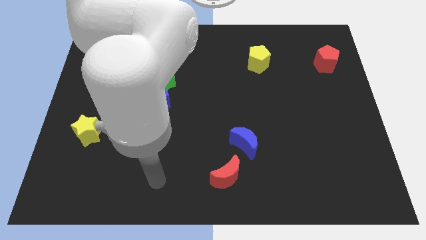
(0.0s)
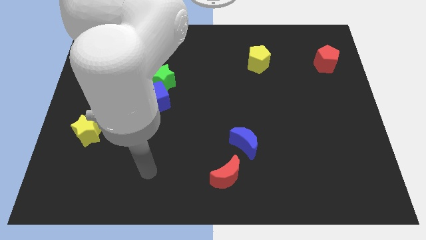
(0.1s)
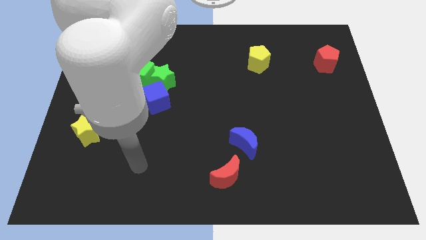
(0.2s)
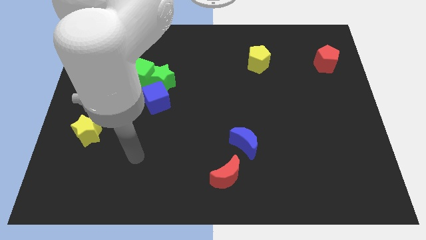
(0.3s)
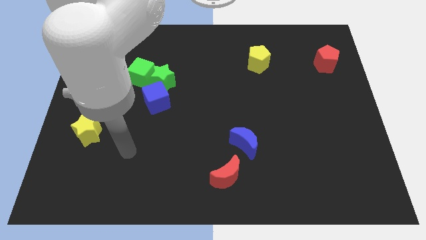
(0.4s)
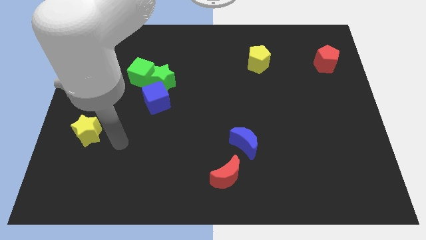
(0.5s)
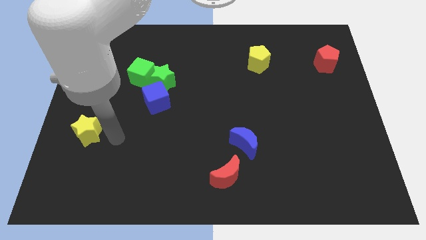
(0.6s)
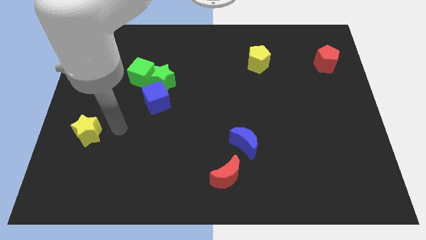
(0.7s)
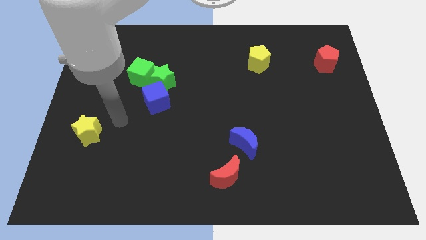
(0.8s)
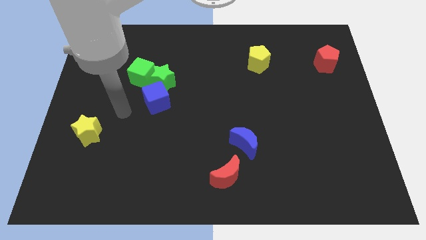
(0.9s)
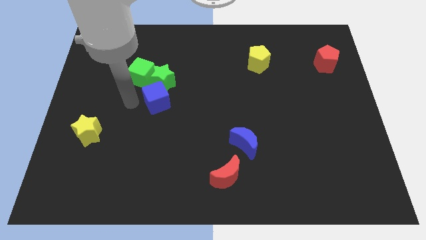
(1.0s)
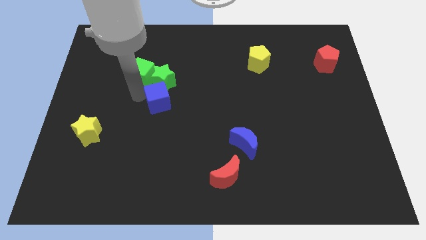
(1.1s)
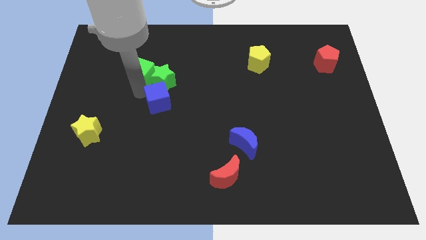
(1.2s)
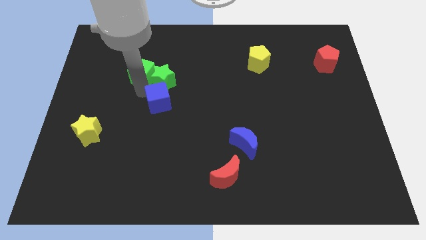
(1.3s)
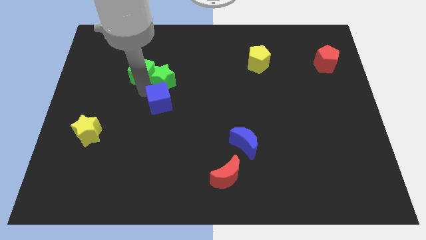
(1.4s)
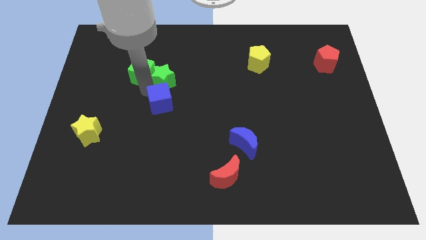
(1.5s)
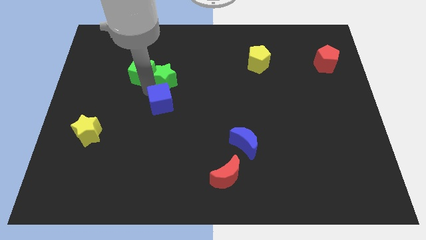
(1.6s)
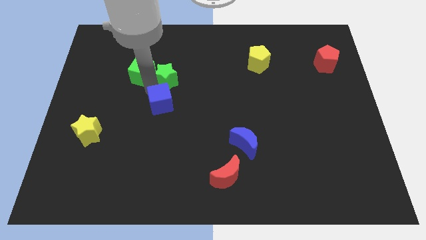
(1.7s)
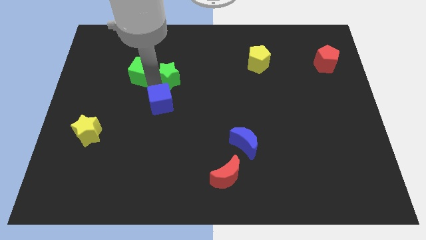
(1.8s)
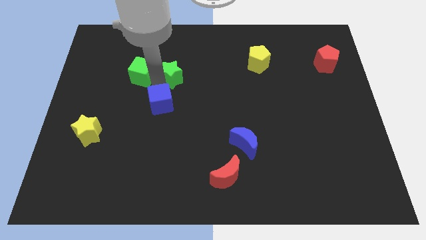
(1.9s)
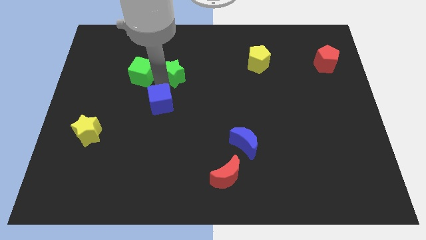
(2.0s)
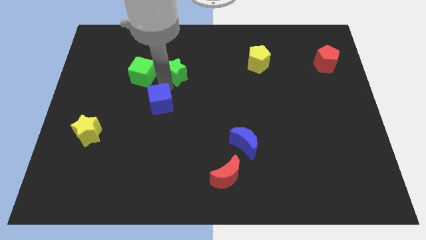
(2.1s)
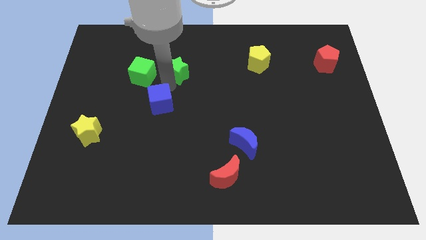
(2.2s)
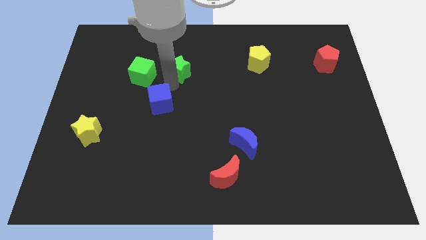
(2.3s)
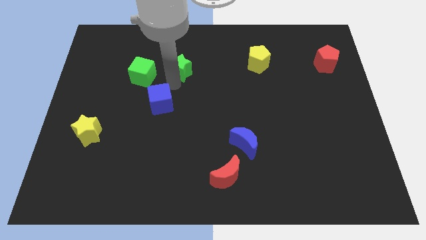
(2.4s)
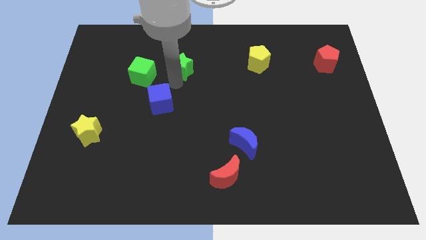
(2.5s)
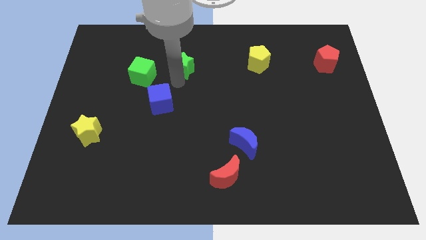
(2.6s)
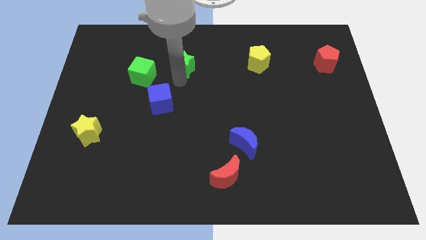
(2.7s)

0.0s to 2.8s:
pull the green star apart from the green cube and blue cube

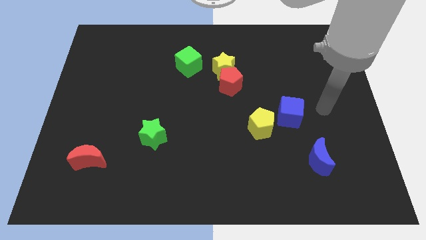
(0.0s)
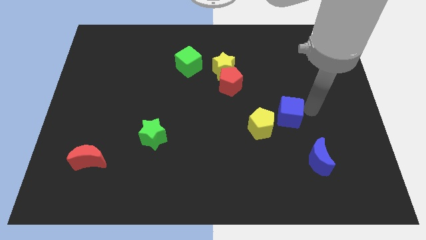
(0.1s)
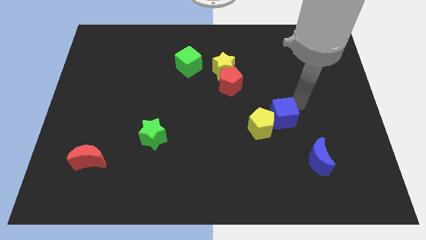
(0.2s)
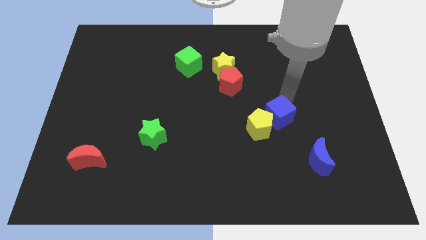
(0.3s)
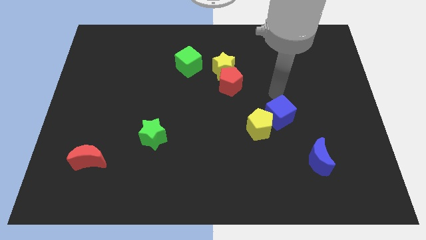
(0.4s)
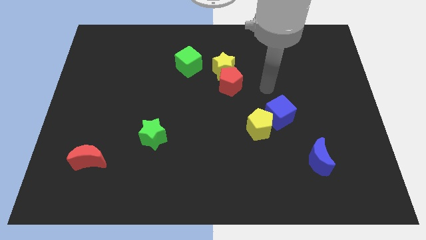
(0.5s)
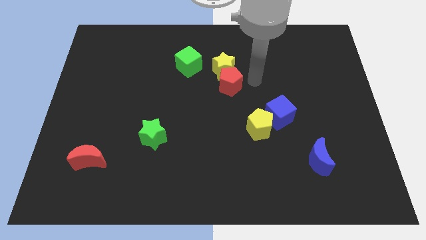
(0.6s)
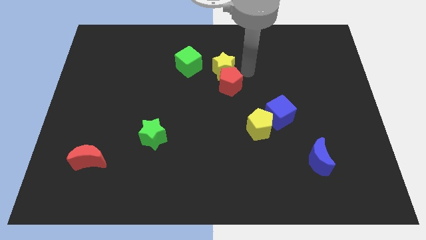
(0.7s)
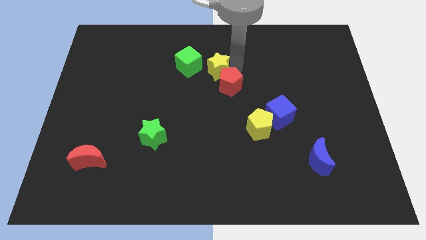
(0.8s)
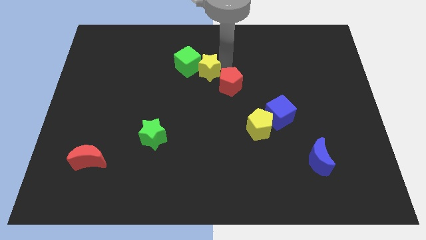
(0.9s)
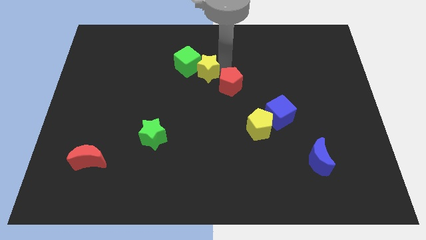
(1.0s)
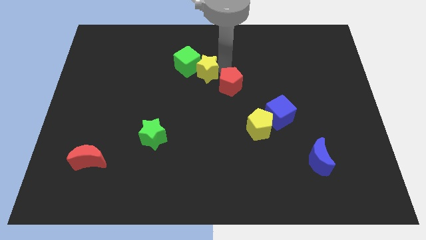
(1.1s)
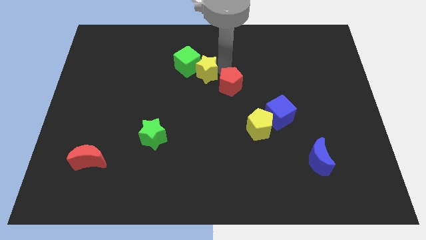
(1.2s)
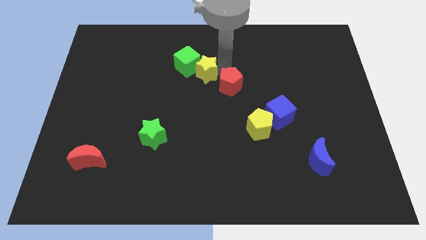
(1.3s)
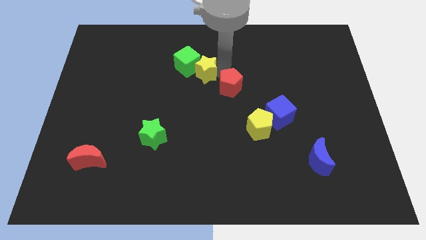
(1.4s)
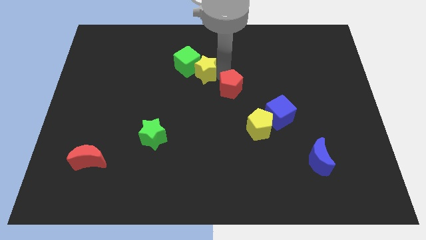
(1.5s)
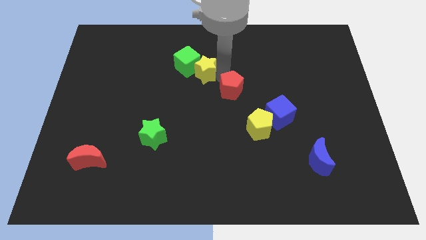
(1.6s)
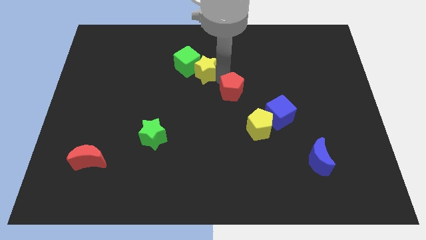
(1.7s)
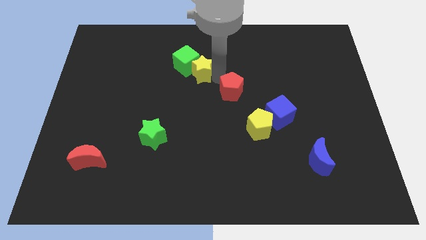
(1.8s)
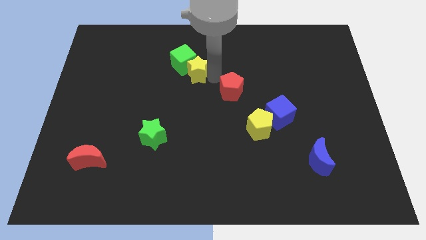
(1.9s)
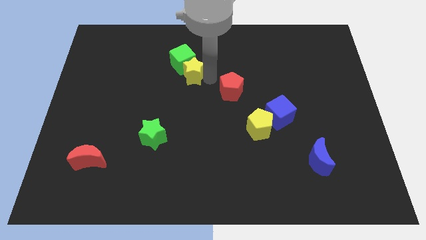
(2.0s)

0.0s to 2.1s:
pull the red pentagon apart from the yellow star

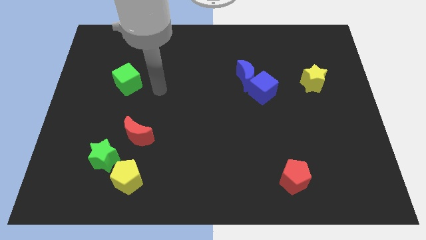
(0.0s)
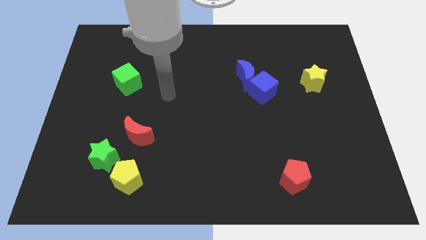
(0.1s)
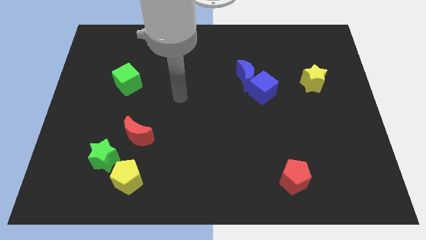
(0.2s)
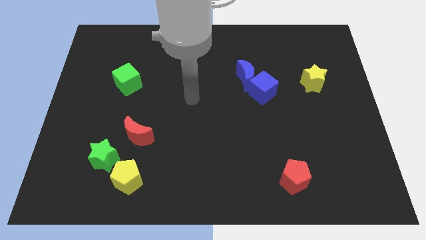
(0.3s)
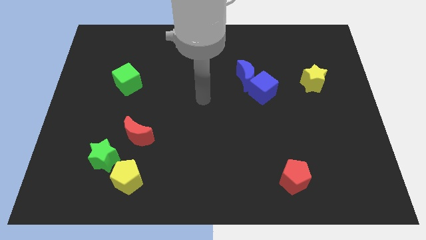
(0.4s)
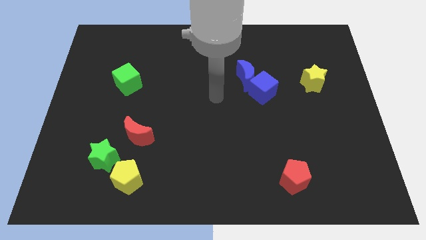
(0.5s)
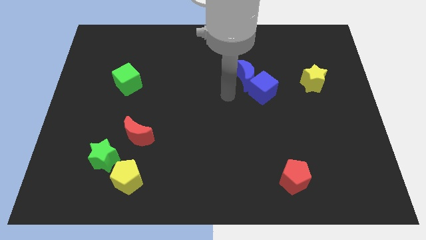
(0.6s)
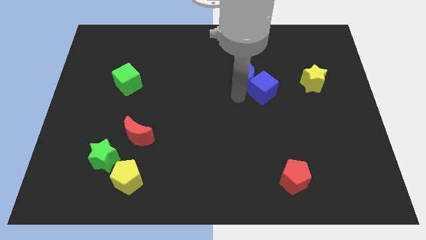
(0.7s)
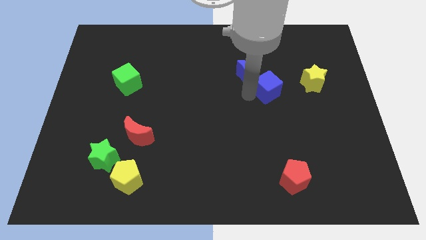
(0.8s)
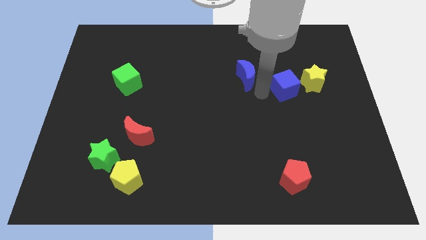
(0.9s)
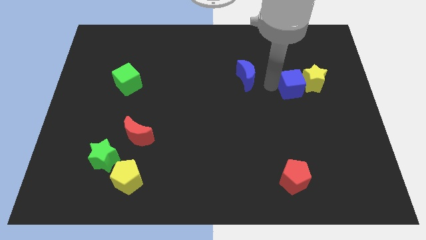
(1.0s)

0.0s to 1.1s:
move the blue moon away from the blue cube

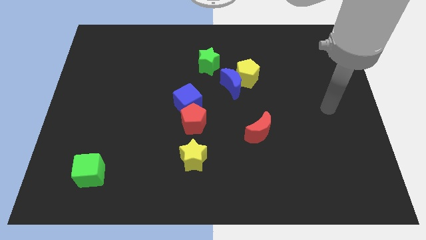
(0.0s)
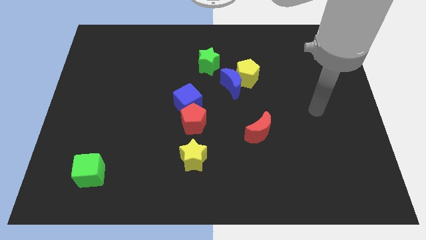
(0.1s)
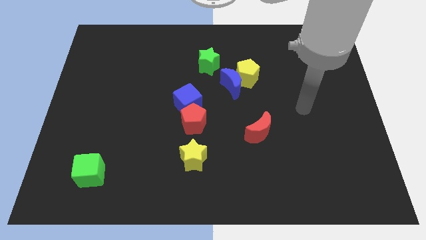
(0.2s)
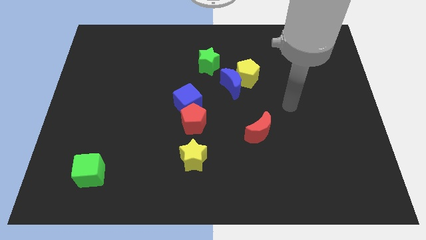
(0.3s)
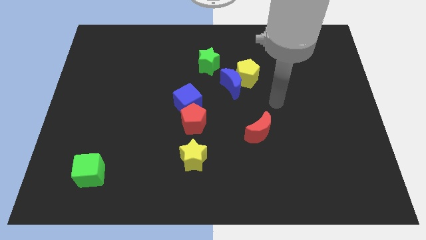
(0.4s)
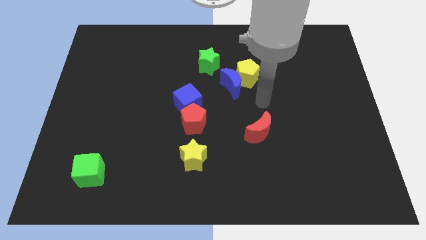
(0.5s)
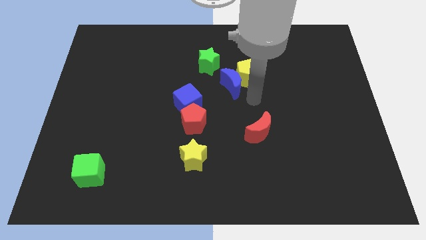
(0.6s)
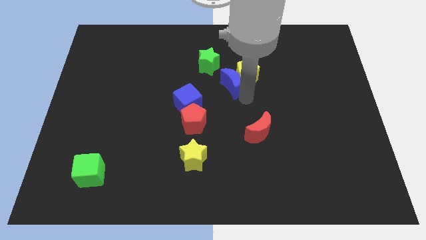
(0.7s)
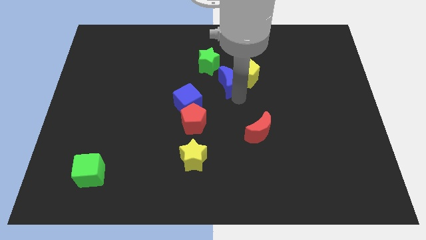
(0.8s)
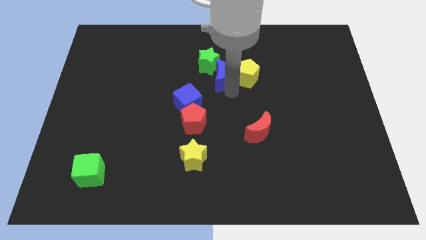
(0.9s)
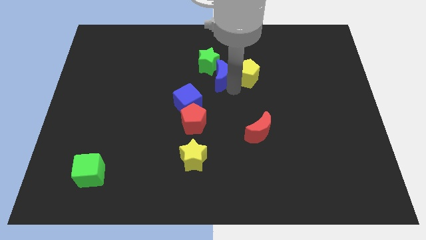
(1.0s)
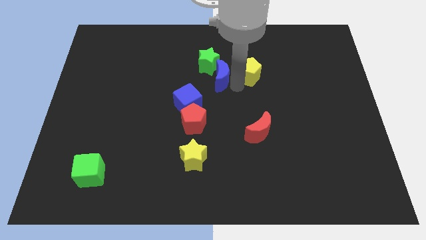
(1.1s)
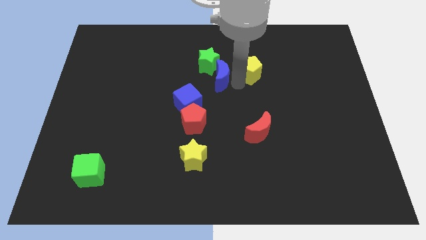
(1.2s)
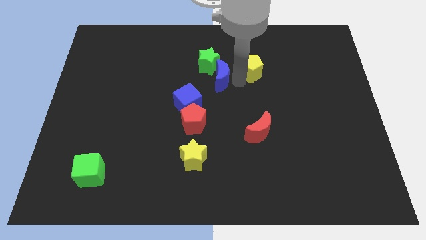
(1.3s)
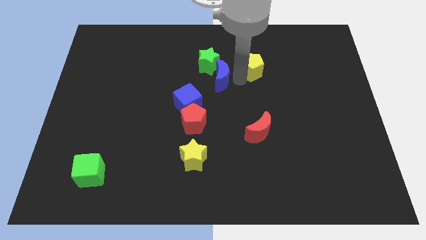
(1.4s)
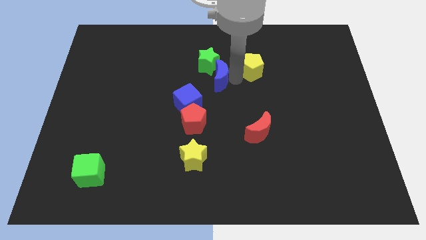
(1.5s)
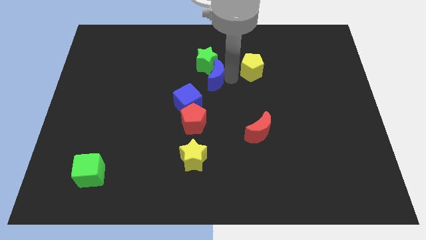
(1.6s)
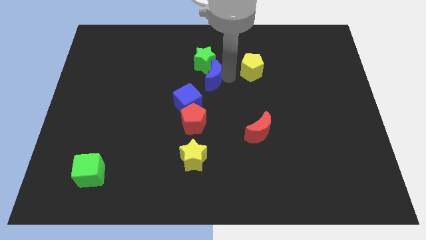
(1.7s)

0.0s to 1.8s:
move the yellow pentagon away from the blue moon

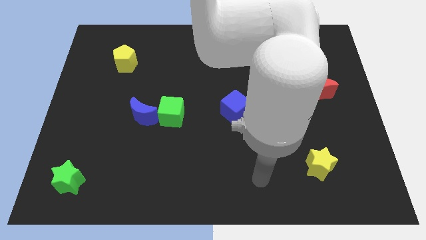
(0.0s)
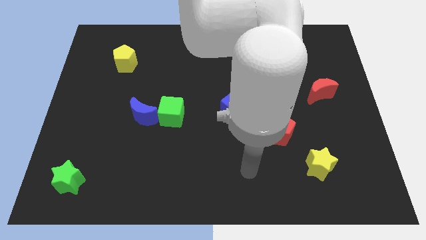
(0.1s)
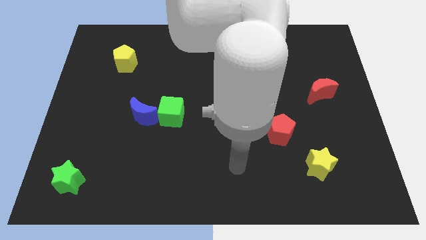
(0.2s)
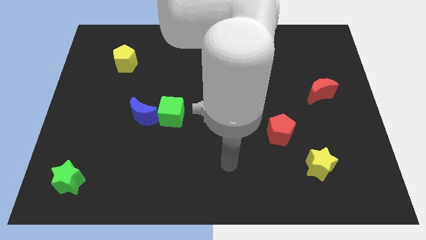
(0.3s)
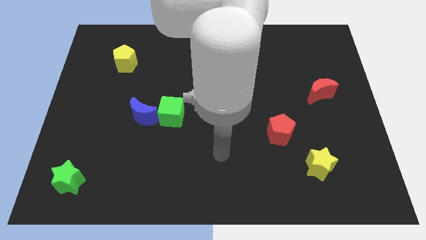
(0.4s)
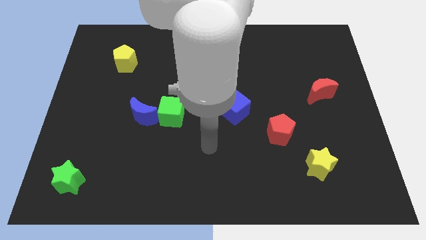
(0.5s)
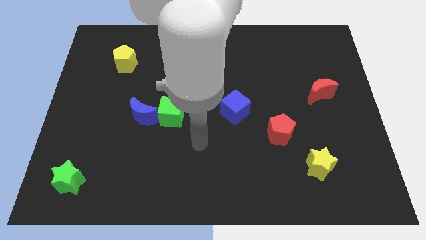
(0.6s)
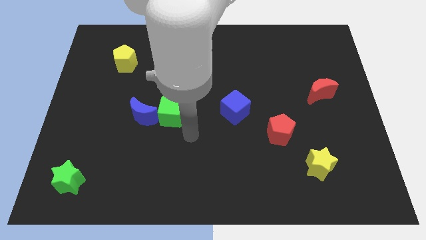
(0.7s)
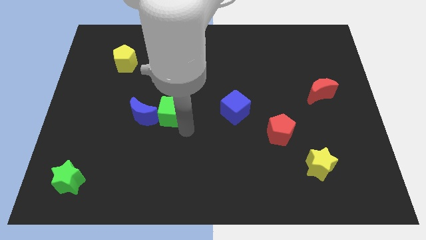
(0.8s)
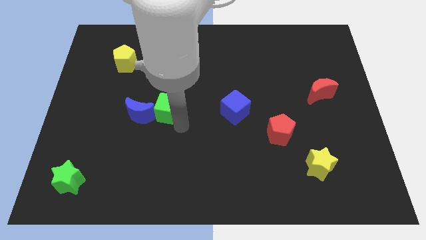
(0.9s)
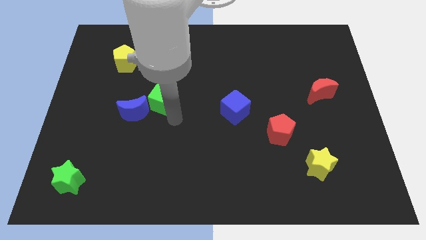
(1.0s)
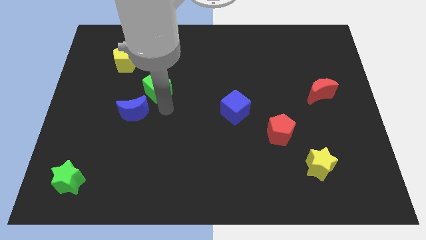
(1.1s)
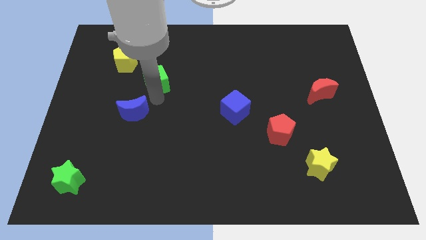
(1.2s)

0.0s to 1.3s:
separate the blue moon from the green cube

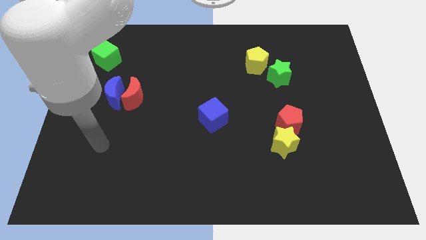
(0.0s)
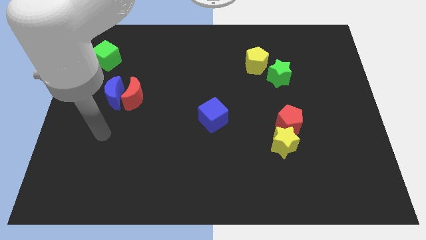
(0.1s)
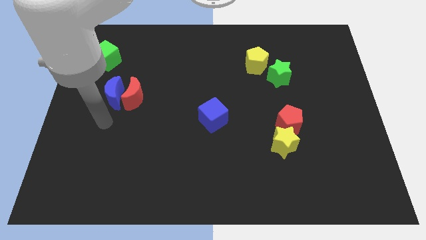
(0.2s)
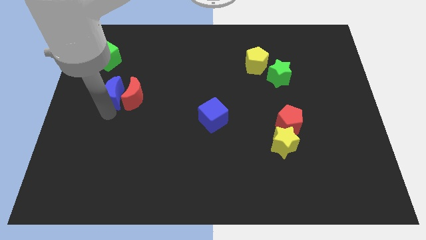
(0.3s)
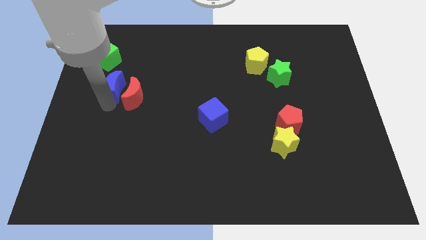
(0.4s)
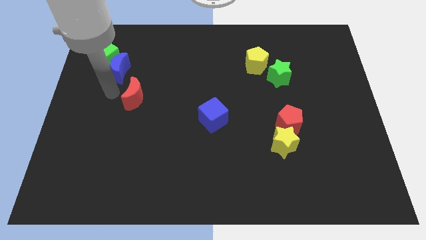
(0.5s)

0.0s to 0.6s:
separate the red moon from the blue moon
